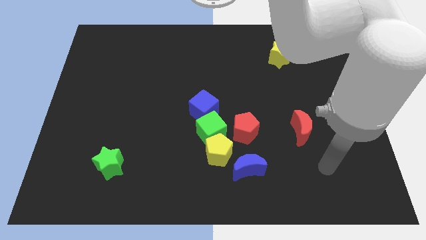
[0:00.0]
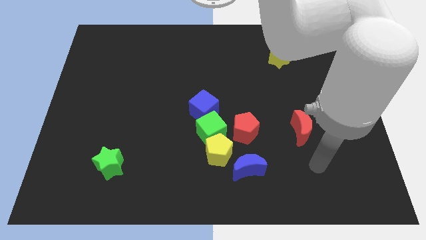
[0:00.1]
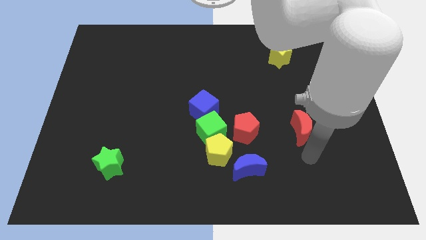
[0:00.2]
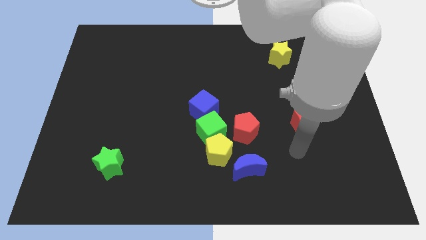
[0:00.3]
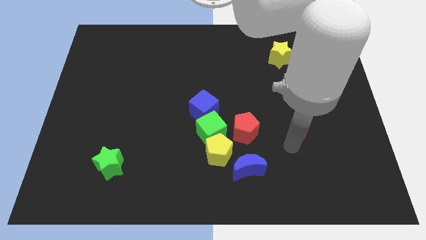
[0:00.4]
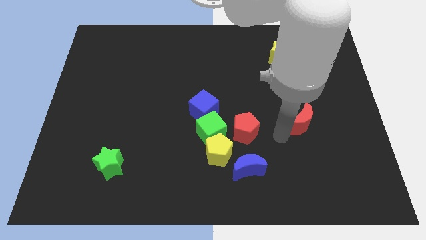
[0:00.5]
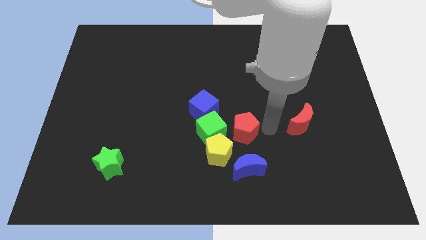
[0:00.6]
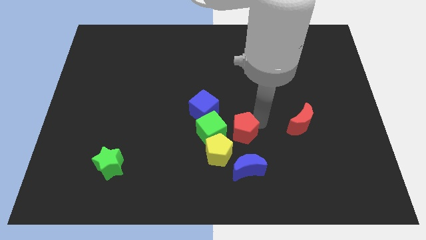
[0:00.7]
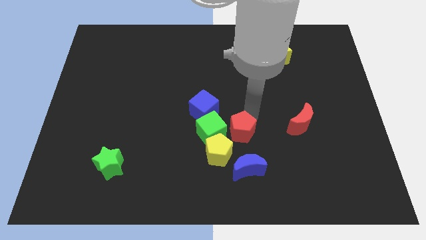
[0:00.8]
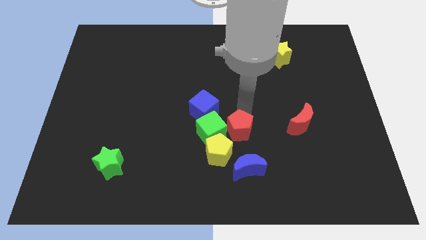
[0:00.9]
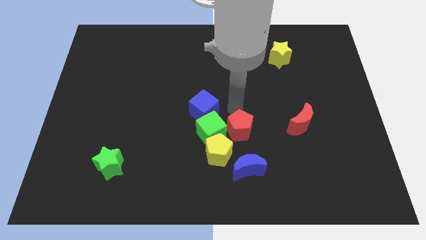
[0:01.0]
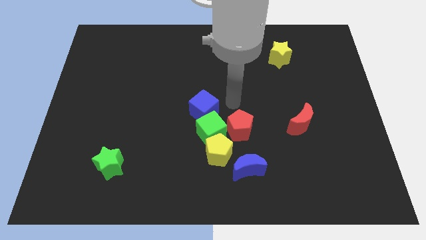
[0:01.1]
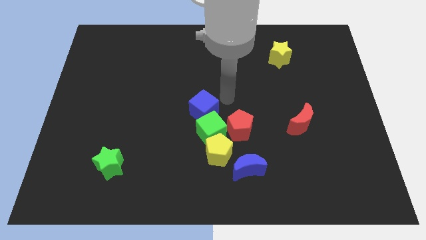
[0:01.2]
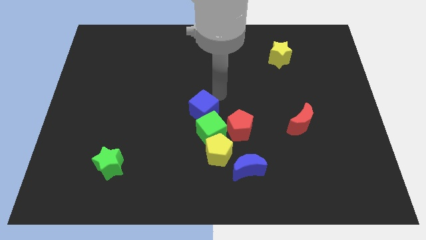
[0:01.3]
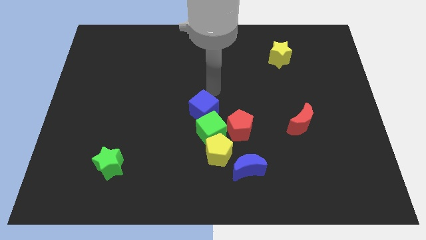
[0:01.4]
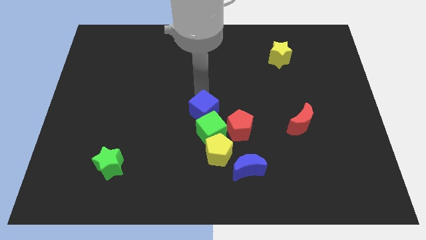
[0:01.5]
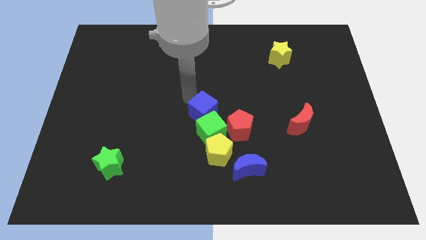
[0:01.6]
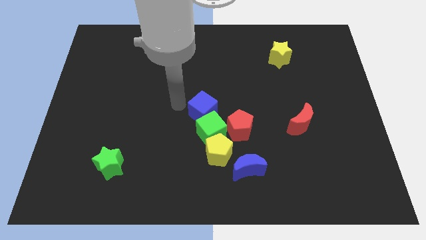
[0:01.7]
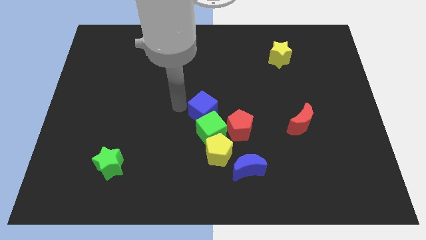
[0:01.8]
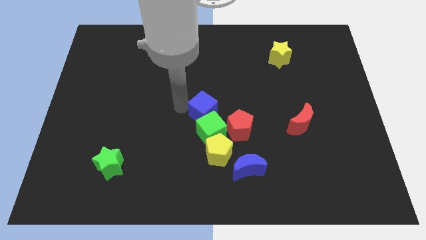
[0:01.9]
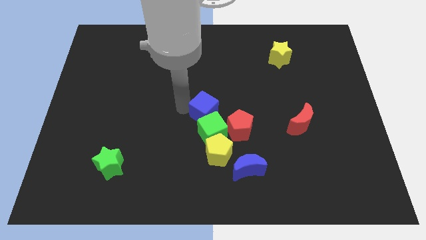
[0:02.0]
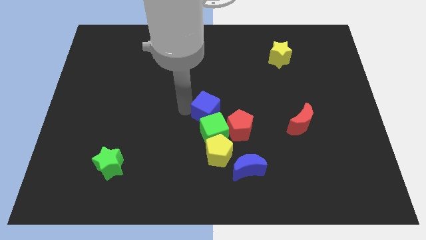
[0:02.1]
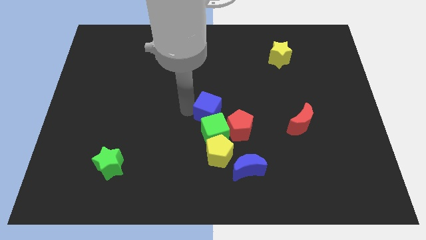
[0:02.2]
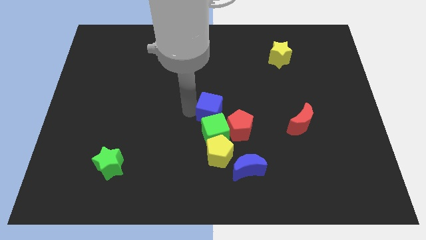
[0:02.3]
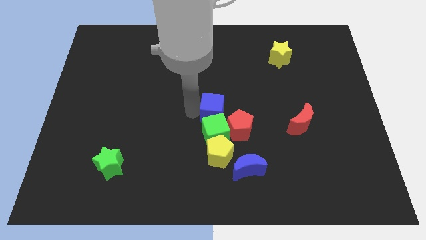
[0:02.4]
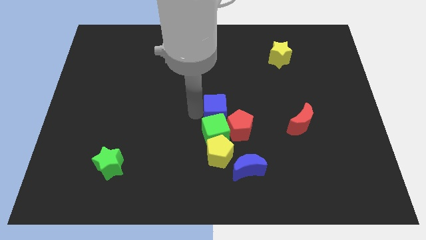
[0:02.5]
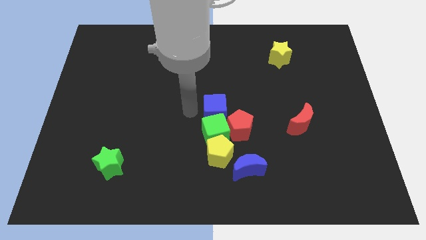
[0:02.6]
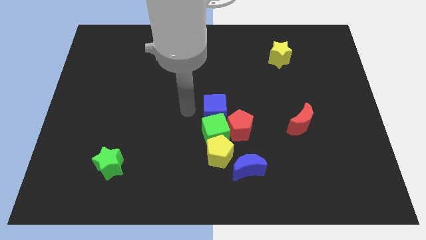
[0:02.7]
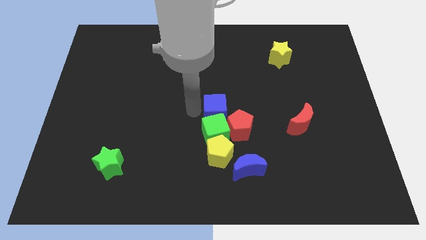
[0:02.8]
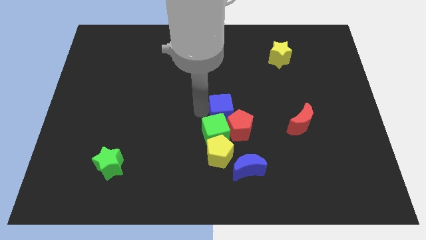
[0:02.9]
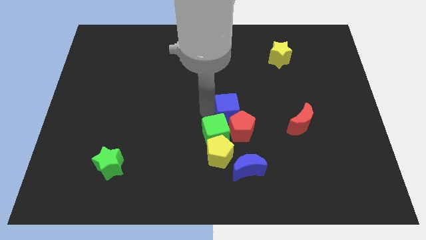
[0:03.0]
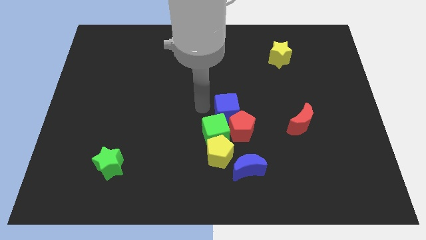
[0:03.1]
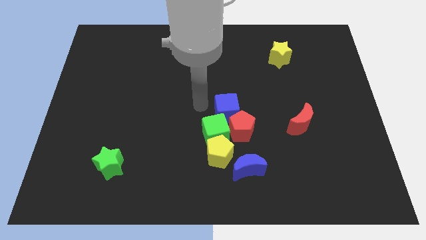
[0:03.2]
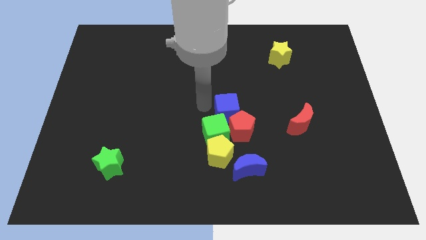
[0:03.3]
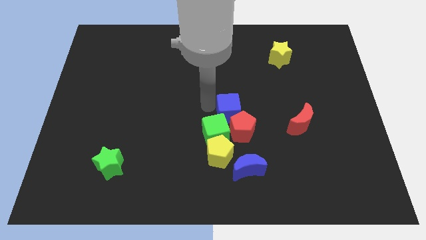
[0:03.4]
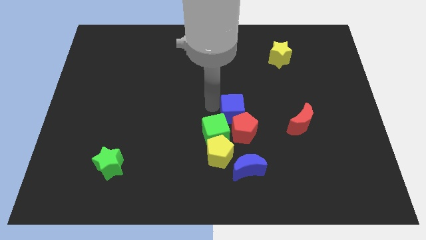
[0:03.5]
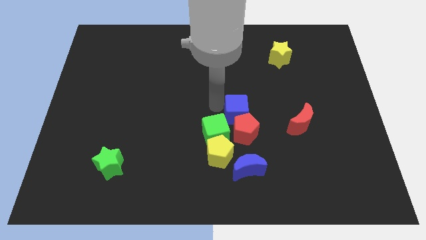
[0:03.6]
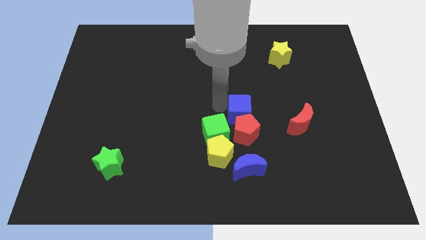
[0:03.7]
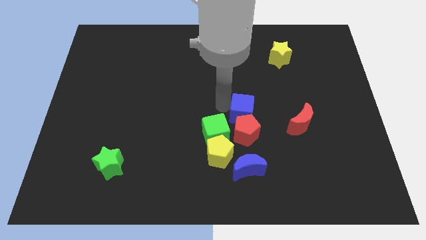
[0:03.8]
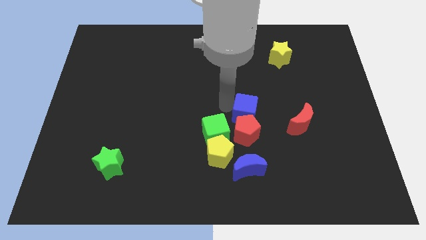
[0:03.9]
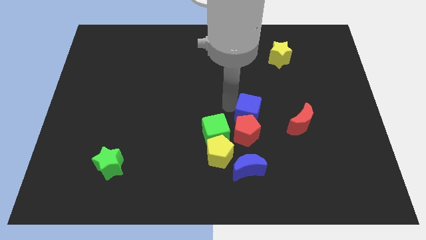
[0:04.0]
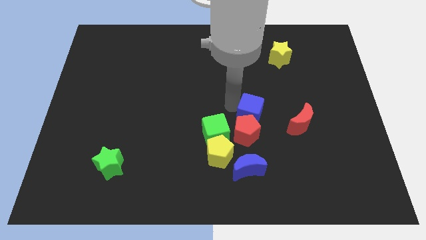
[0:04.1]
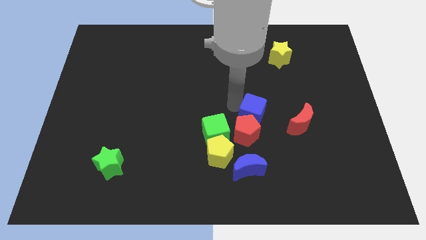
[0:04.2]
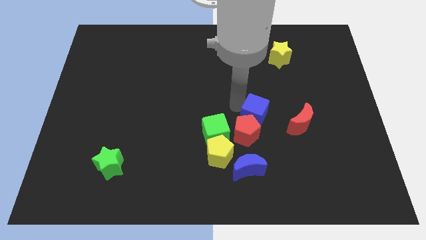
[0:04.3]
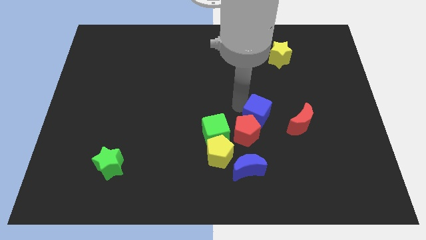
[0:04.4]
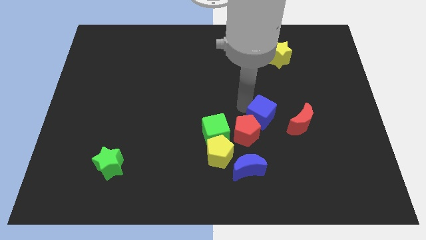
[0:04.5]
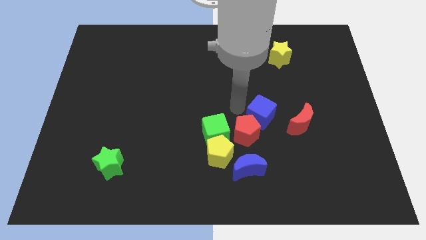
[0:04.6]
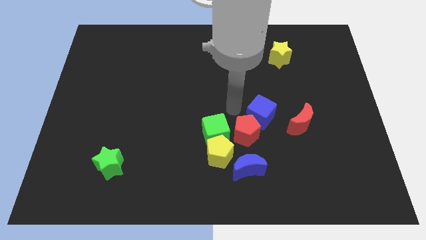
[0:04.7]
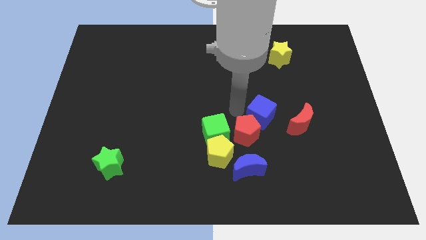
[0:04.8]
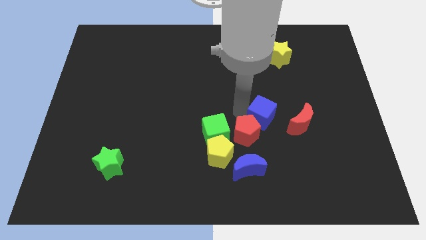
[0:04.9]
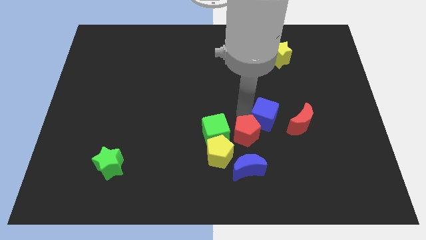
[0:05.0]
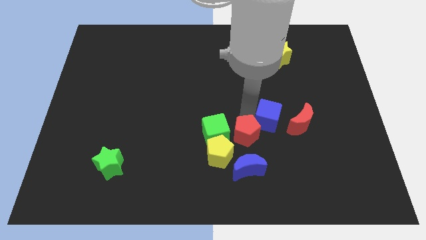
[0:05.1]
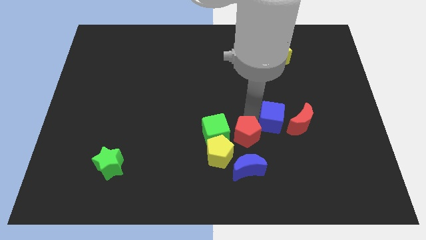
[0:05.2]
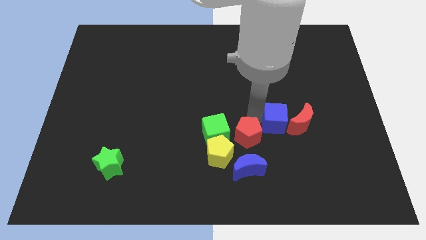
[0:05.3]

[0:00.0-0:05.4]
put the blue cube next to the red moon

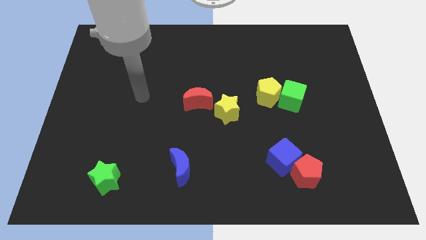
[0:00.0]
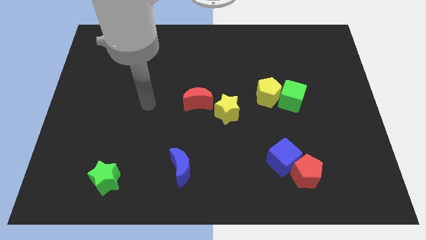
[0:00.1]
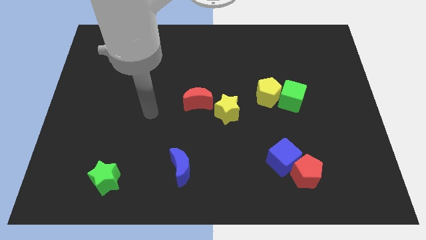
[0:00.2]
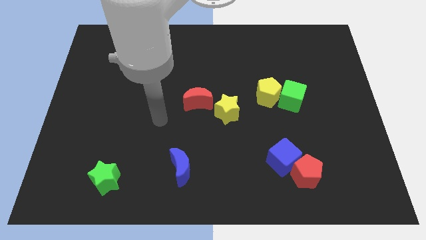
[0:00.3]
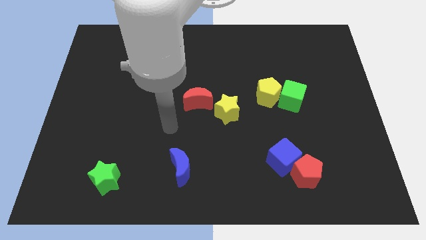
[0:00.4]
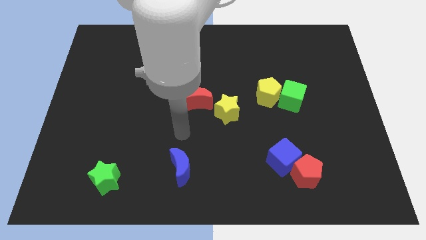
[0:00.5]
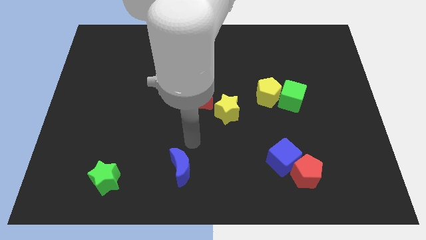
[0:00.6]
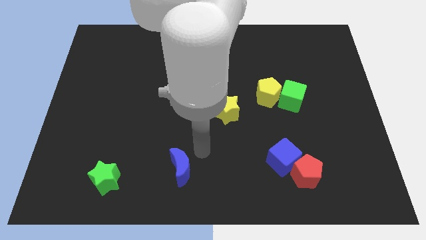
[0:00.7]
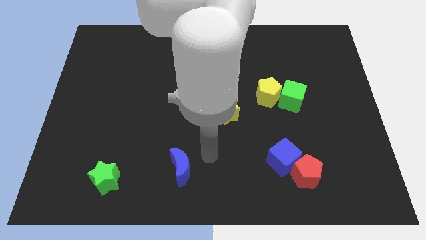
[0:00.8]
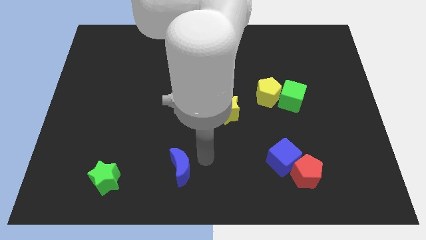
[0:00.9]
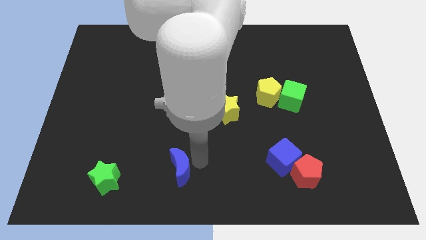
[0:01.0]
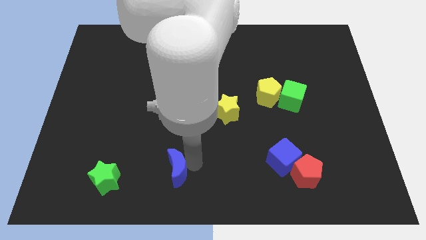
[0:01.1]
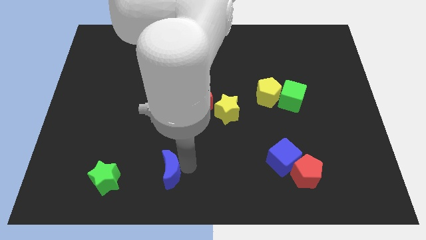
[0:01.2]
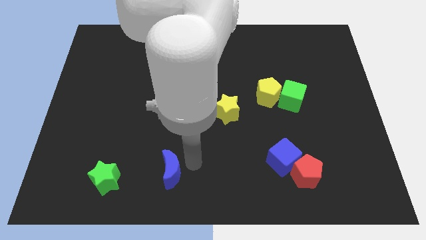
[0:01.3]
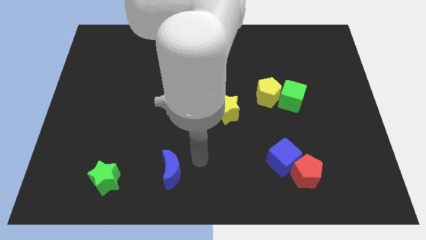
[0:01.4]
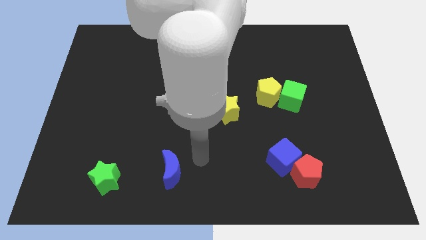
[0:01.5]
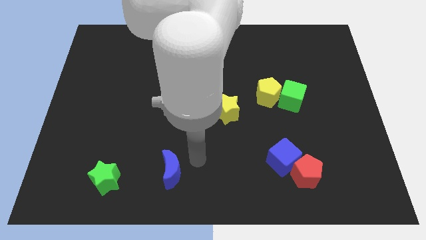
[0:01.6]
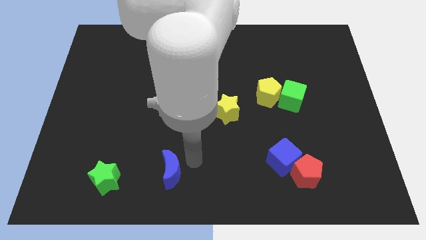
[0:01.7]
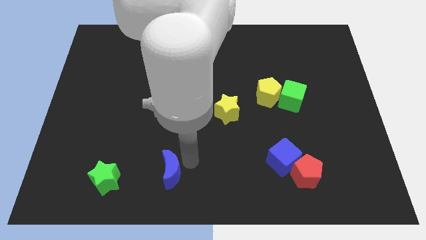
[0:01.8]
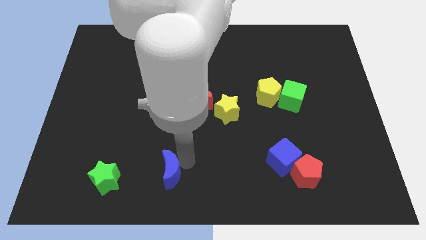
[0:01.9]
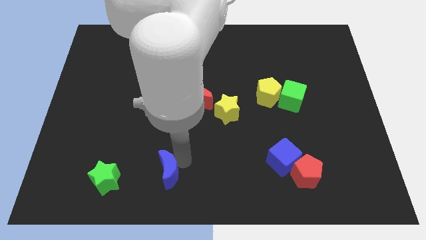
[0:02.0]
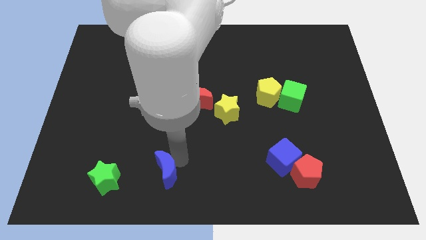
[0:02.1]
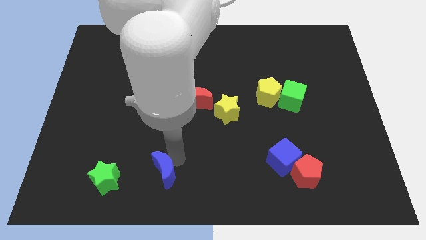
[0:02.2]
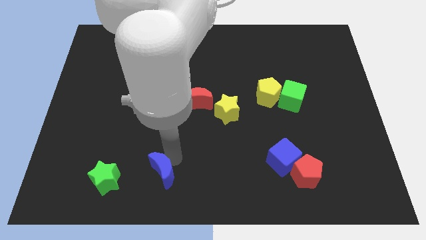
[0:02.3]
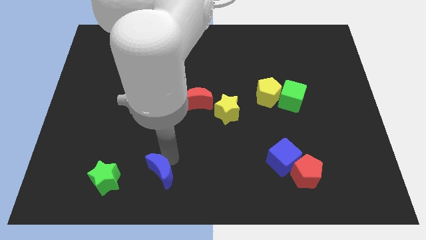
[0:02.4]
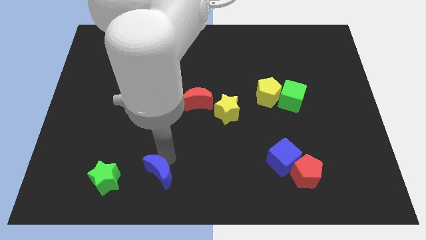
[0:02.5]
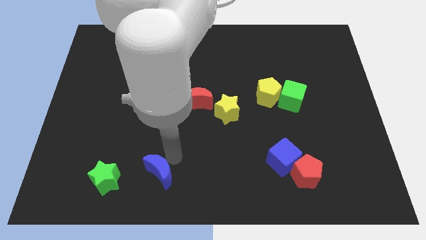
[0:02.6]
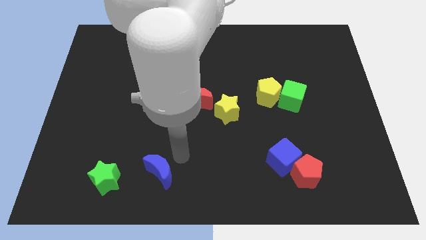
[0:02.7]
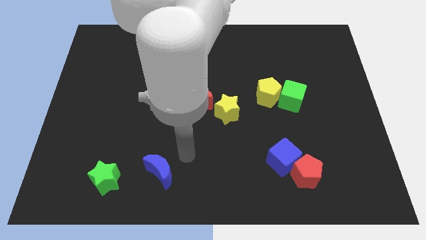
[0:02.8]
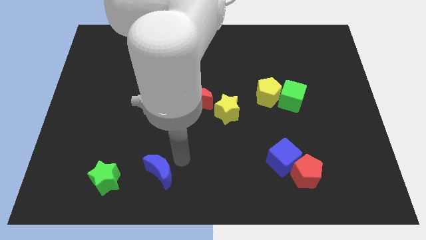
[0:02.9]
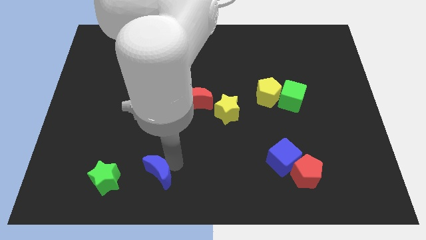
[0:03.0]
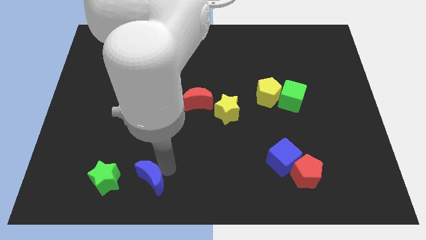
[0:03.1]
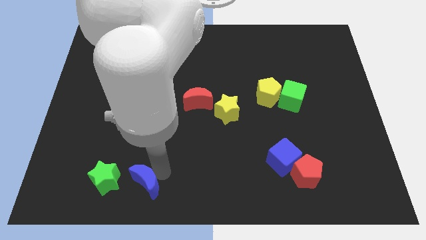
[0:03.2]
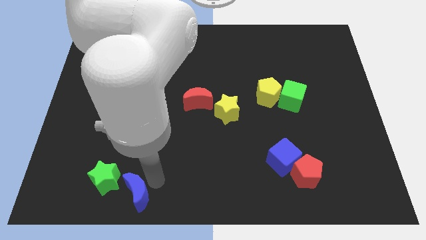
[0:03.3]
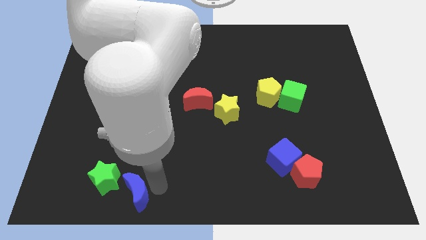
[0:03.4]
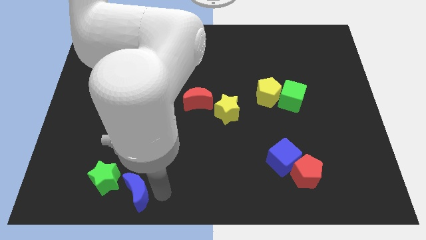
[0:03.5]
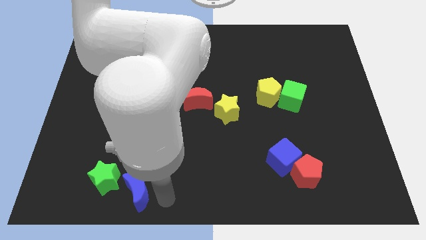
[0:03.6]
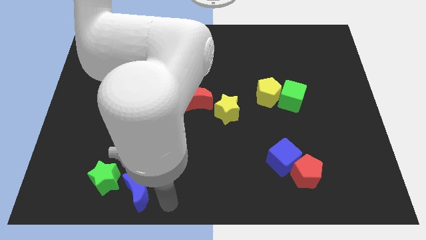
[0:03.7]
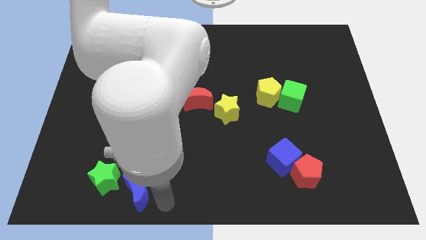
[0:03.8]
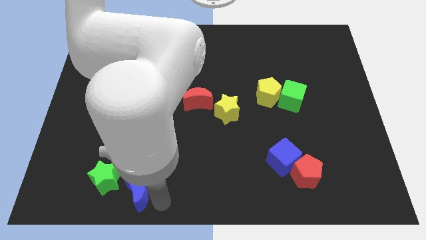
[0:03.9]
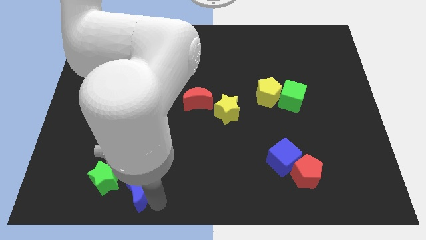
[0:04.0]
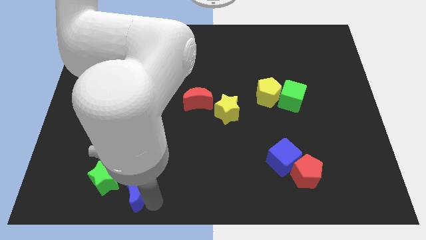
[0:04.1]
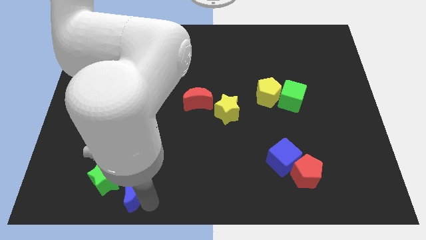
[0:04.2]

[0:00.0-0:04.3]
slide the blue moon close to the green star
